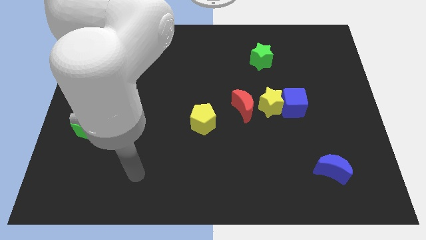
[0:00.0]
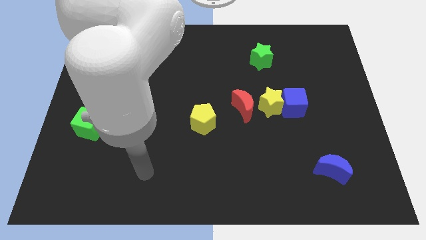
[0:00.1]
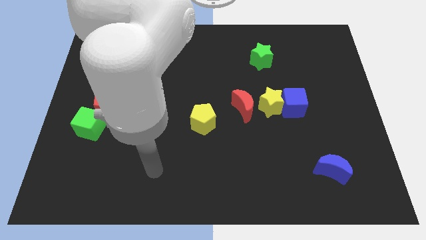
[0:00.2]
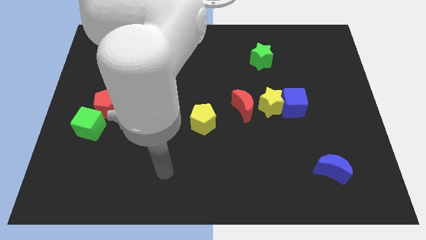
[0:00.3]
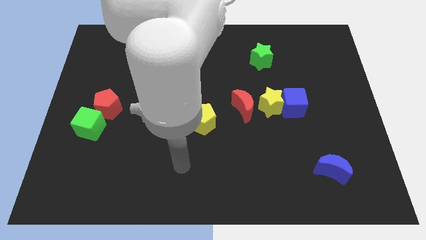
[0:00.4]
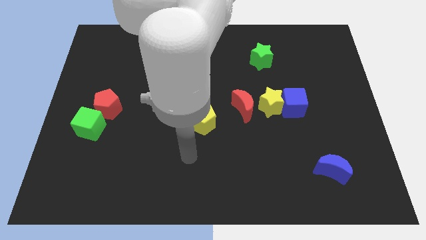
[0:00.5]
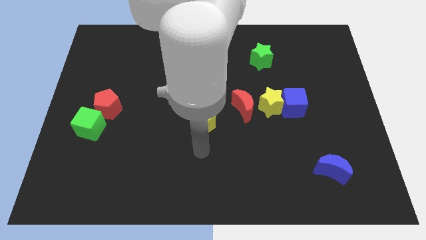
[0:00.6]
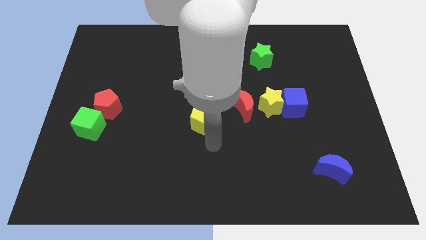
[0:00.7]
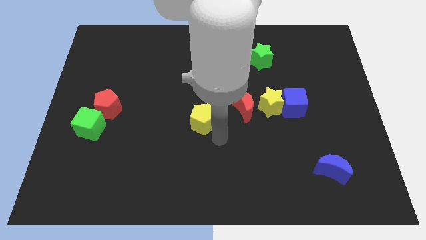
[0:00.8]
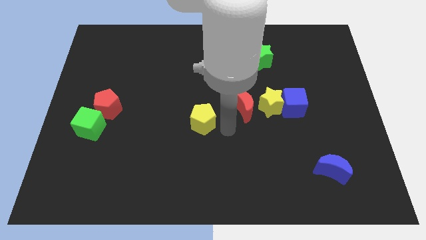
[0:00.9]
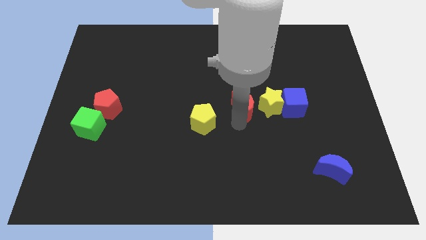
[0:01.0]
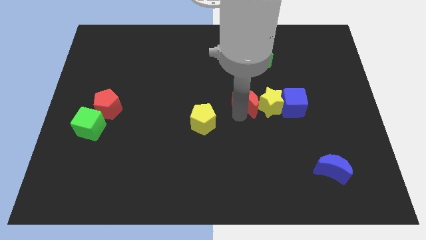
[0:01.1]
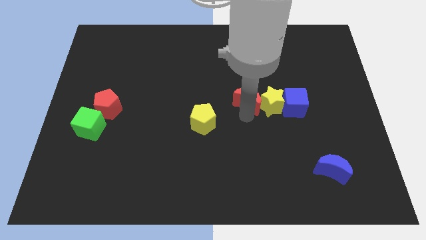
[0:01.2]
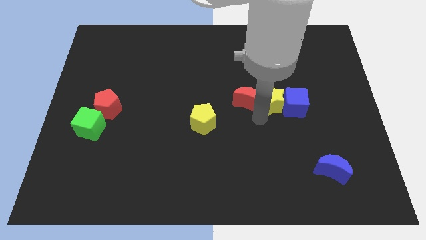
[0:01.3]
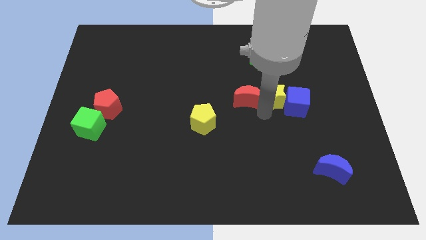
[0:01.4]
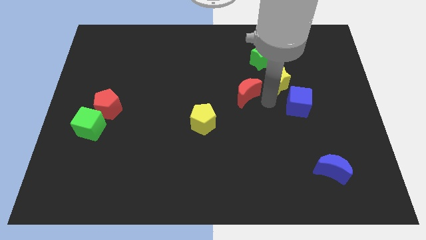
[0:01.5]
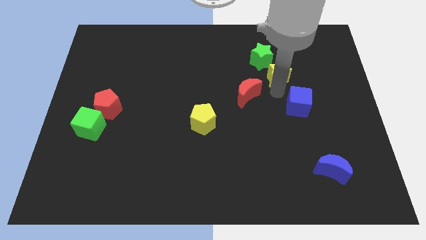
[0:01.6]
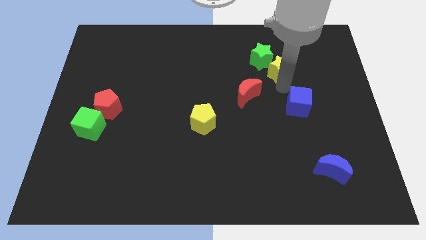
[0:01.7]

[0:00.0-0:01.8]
pull the blue cube apart from the yellow star

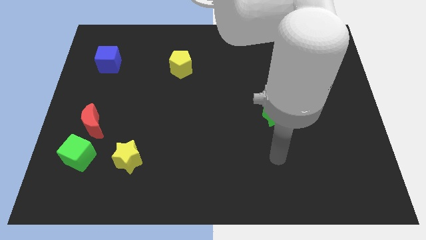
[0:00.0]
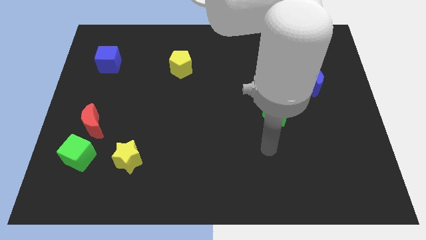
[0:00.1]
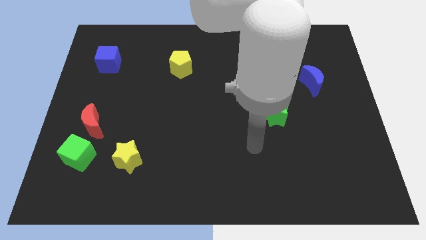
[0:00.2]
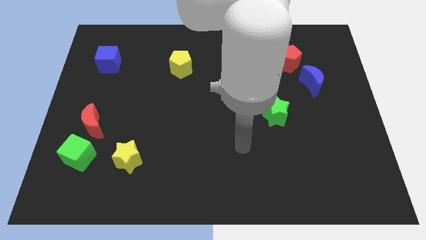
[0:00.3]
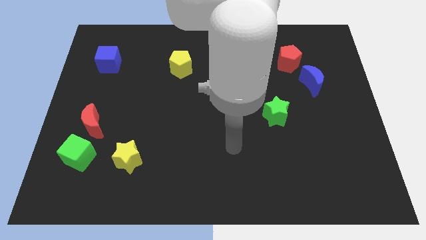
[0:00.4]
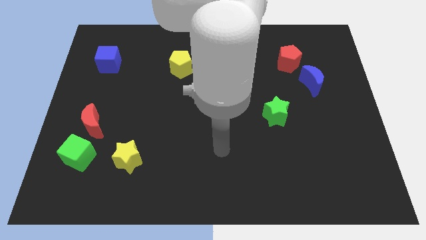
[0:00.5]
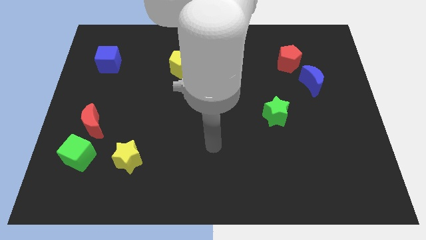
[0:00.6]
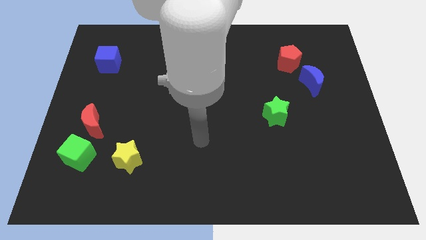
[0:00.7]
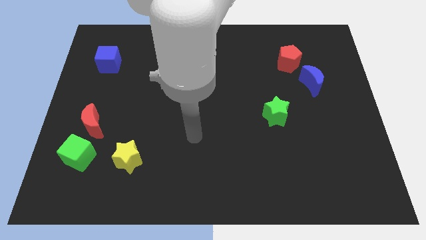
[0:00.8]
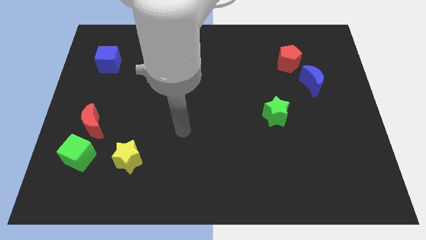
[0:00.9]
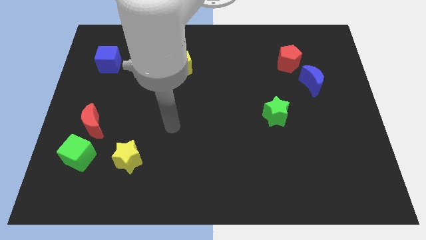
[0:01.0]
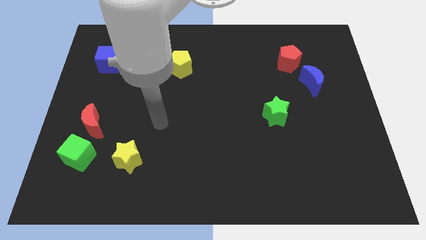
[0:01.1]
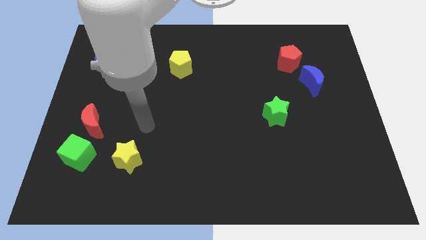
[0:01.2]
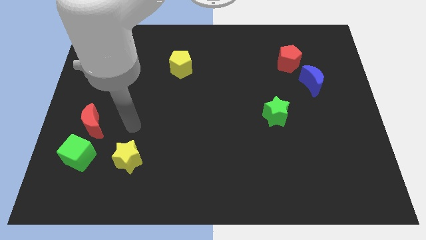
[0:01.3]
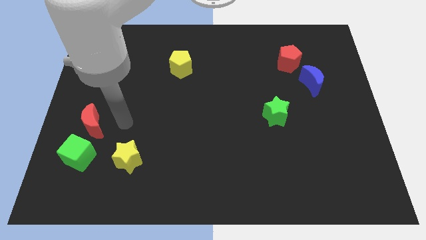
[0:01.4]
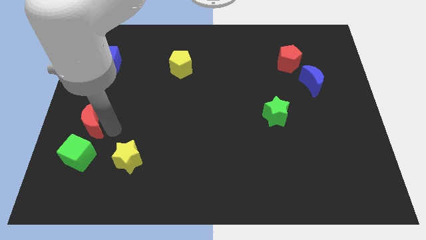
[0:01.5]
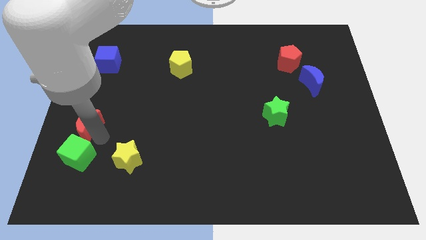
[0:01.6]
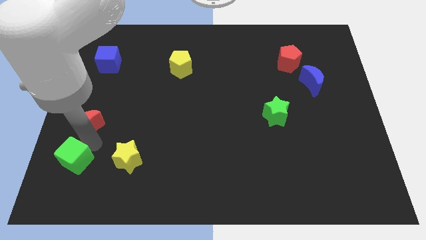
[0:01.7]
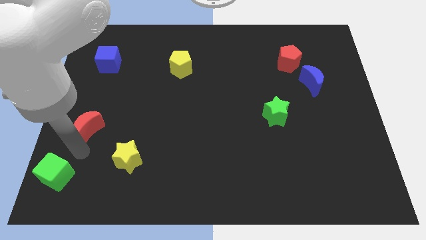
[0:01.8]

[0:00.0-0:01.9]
pull the red moon apart from the green cube

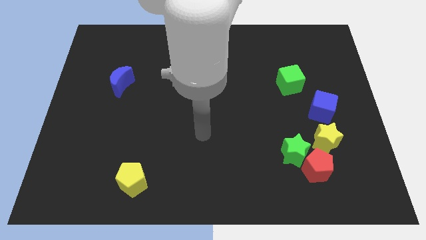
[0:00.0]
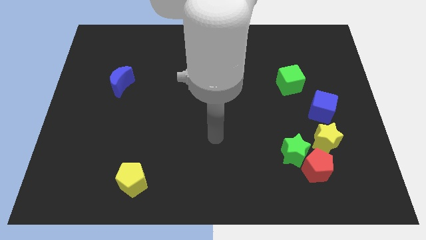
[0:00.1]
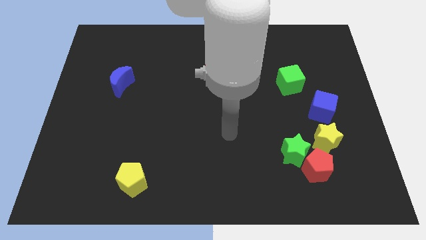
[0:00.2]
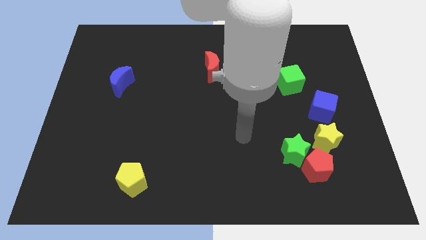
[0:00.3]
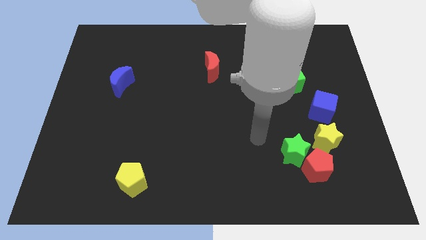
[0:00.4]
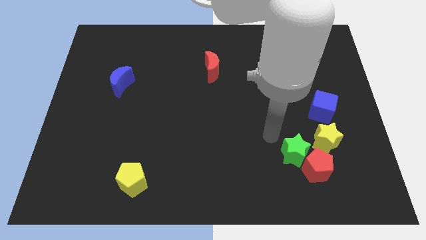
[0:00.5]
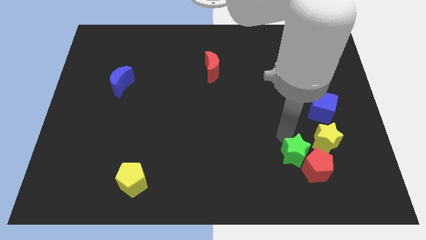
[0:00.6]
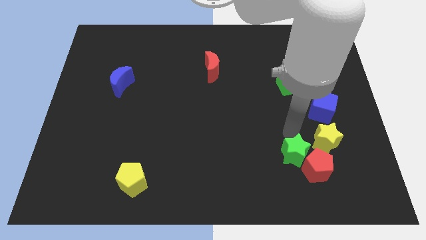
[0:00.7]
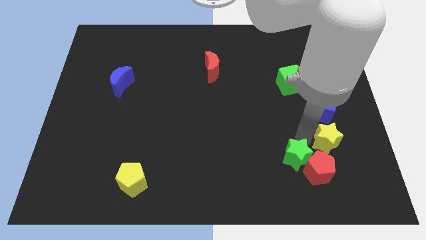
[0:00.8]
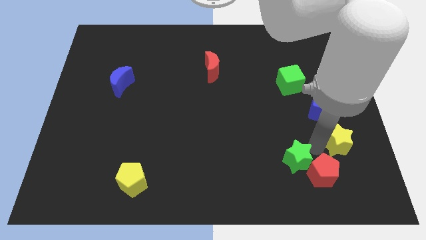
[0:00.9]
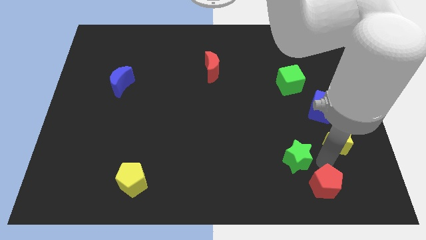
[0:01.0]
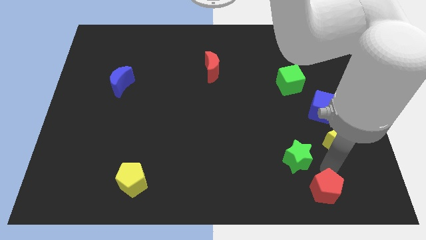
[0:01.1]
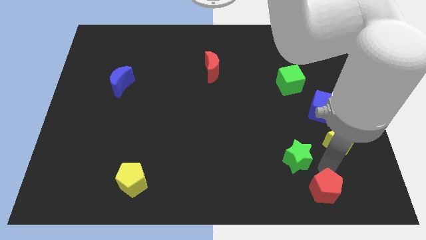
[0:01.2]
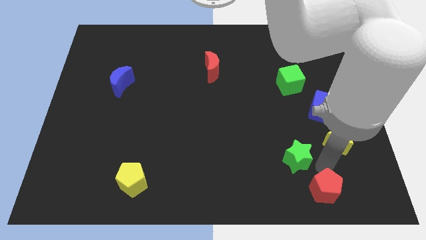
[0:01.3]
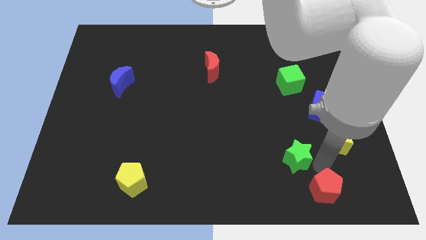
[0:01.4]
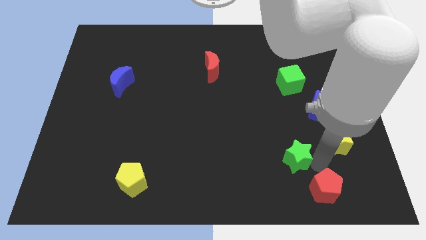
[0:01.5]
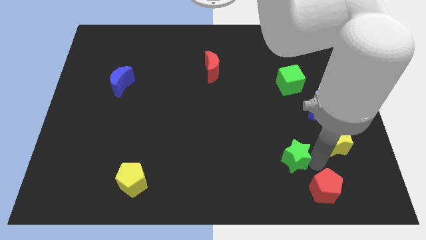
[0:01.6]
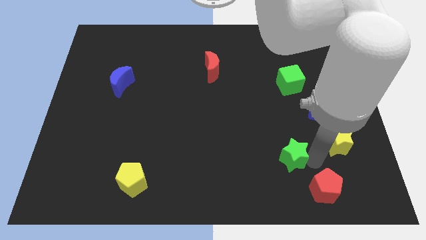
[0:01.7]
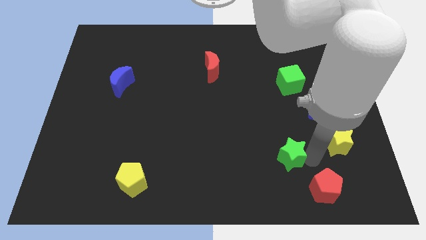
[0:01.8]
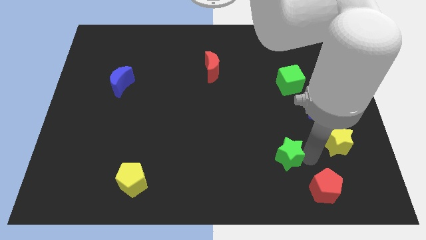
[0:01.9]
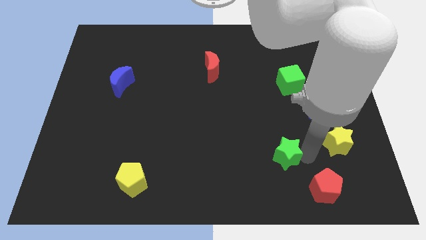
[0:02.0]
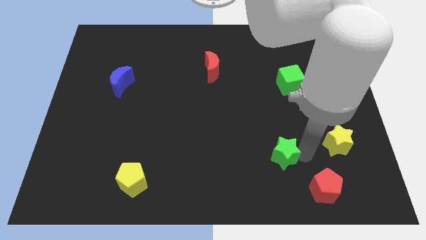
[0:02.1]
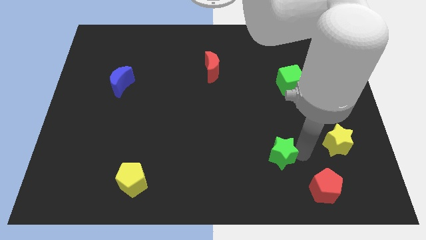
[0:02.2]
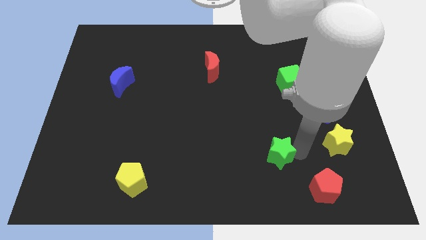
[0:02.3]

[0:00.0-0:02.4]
separate the green star from the red pentagon and yellow star

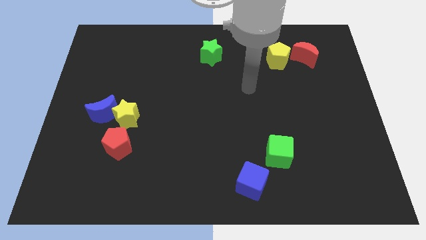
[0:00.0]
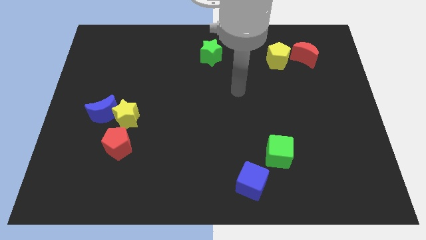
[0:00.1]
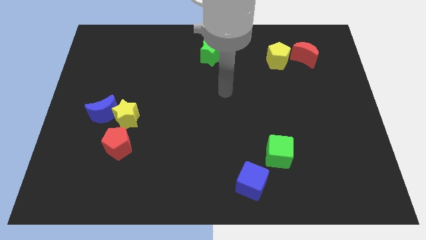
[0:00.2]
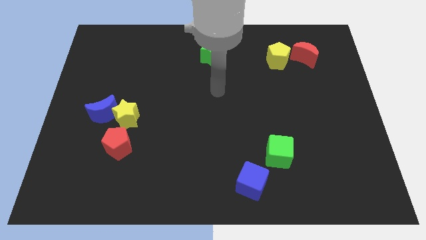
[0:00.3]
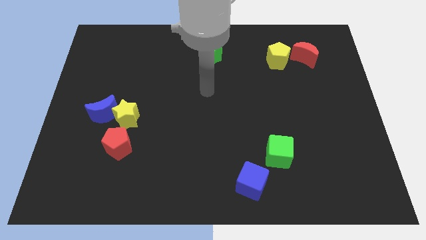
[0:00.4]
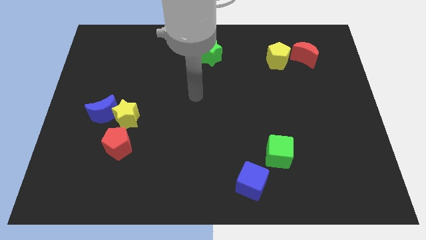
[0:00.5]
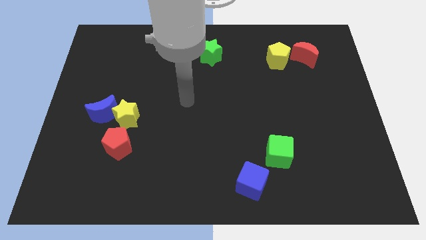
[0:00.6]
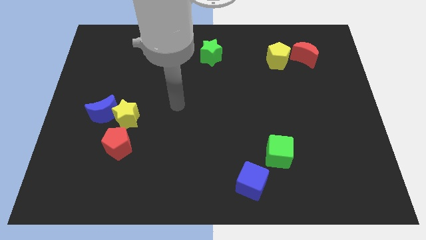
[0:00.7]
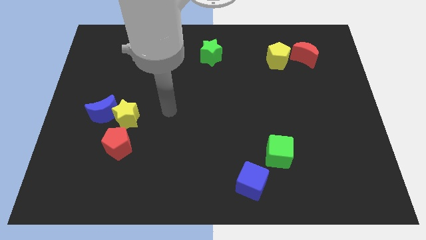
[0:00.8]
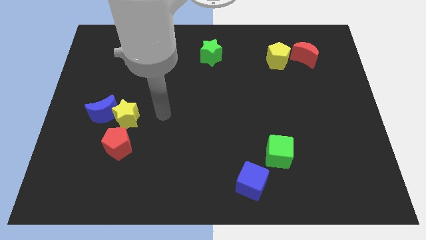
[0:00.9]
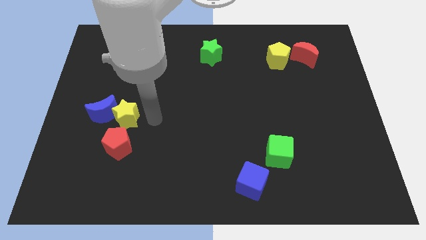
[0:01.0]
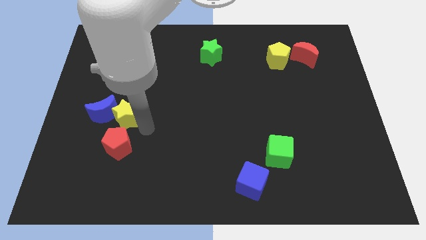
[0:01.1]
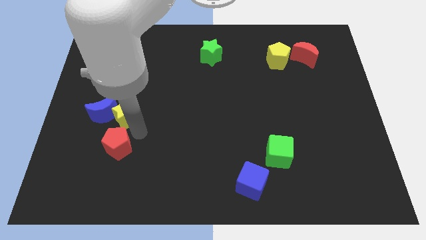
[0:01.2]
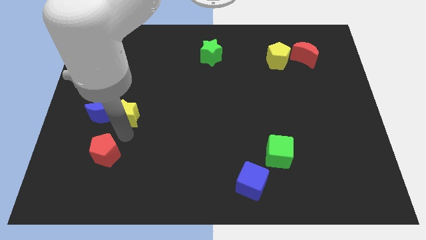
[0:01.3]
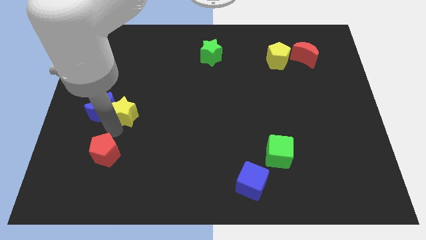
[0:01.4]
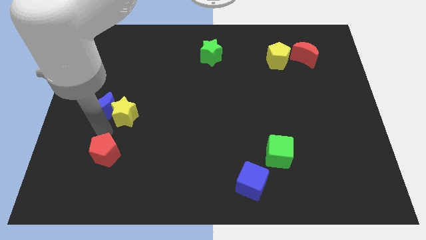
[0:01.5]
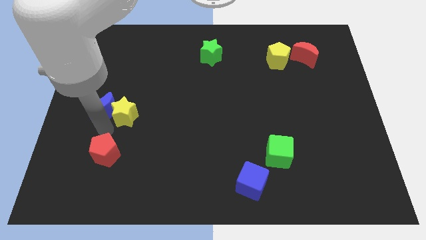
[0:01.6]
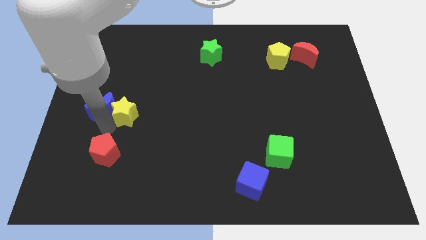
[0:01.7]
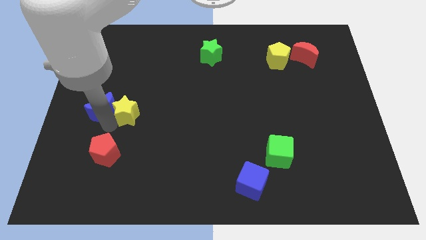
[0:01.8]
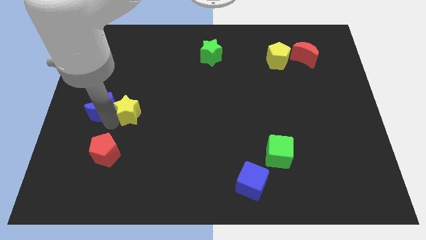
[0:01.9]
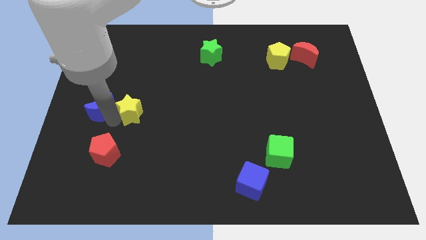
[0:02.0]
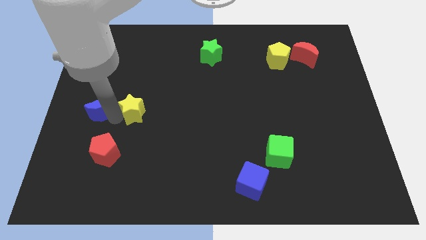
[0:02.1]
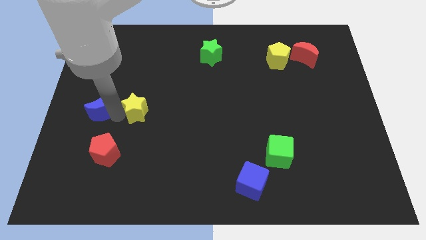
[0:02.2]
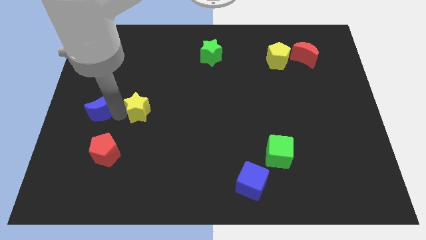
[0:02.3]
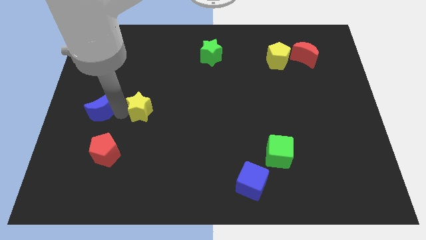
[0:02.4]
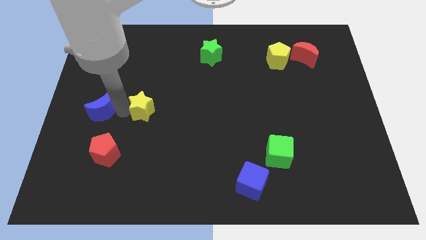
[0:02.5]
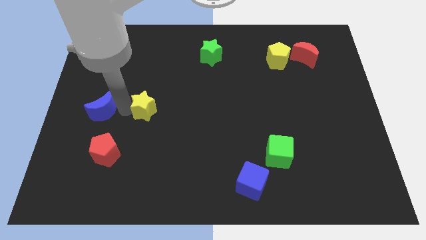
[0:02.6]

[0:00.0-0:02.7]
separate the yellow star from the blue moon and red pentagon

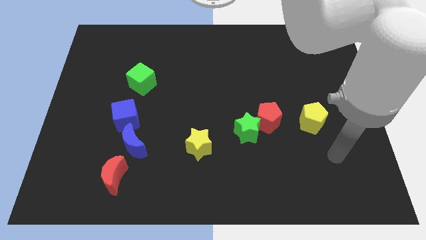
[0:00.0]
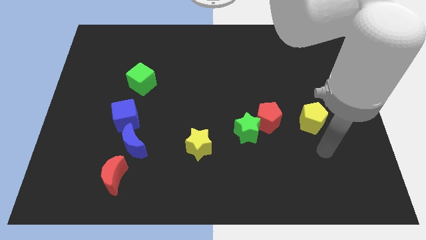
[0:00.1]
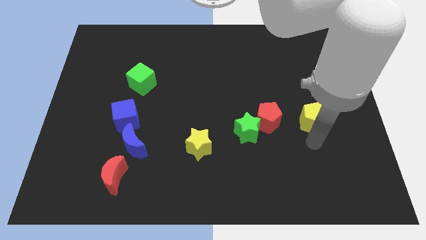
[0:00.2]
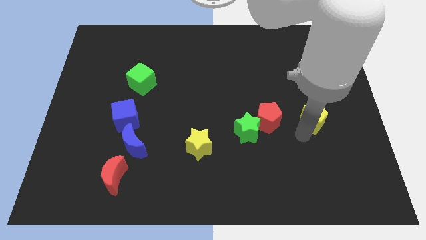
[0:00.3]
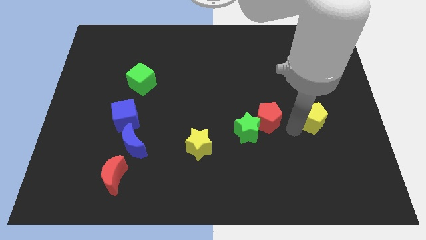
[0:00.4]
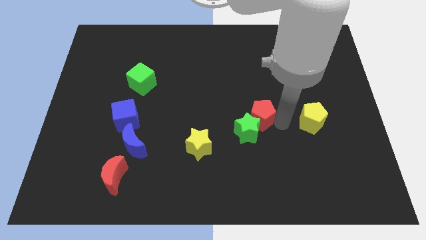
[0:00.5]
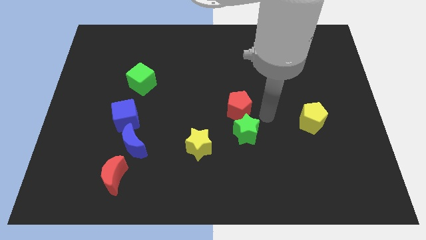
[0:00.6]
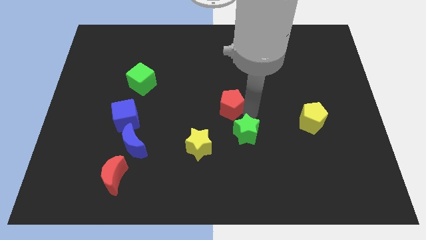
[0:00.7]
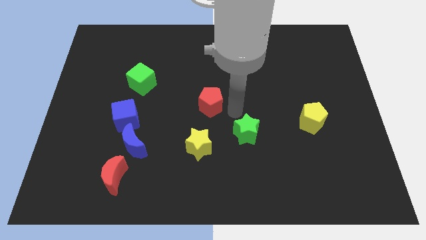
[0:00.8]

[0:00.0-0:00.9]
pull the green star apart from the red pentagon
